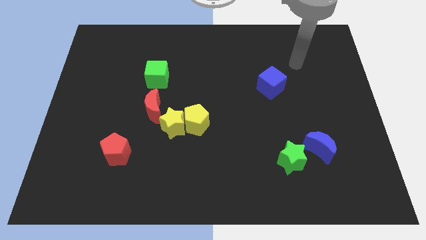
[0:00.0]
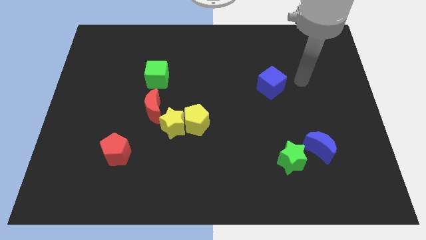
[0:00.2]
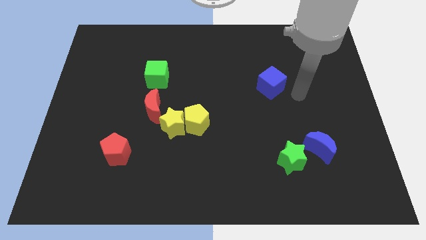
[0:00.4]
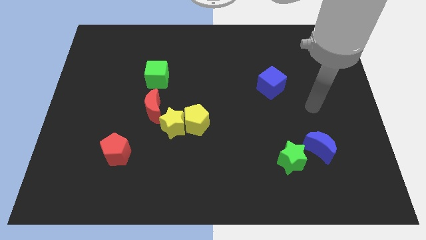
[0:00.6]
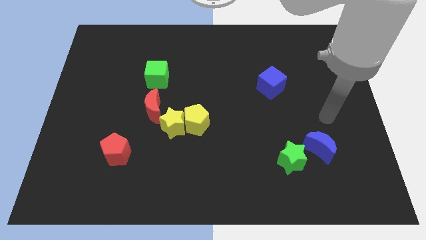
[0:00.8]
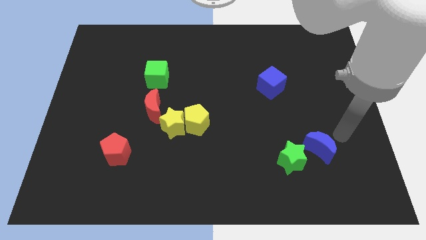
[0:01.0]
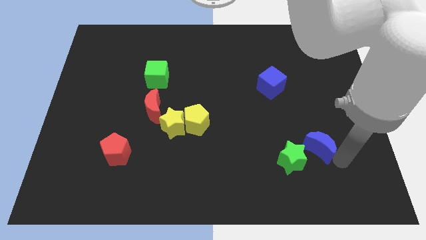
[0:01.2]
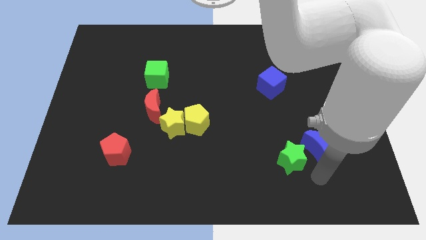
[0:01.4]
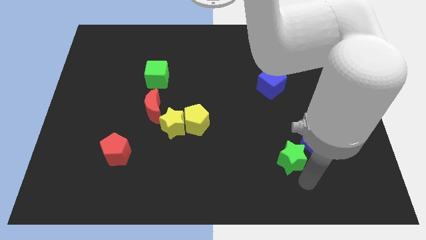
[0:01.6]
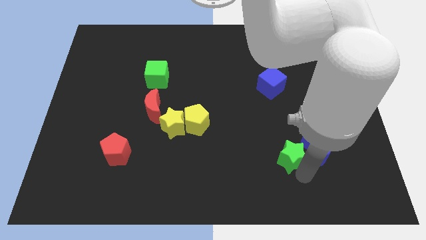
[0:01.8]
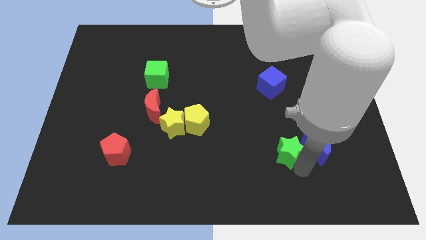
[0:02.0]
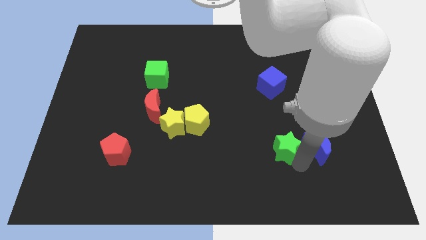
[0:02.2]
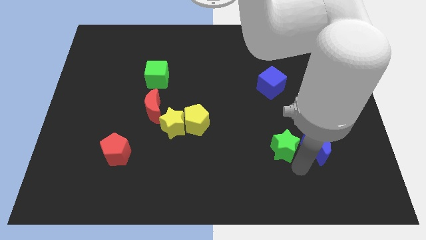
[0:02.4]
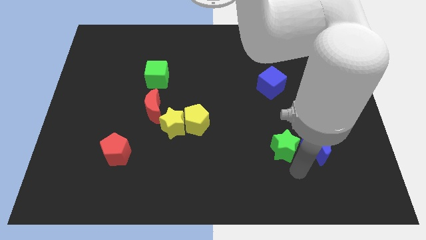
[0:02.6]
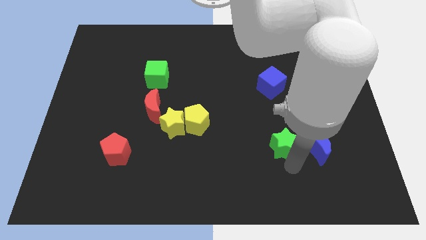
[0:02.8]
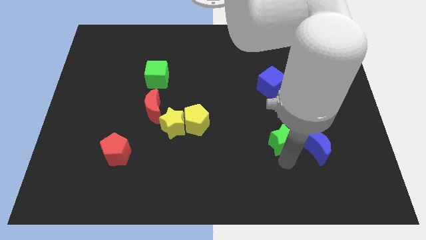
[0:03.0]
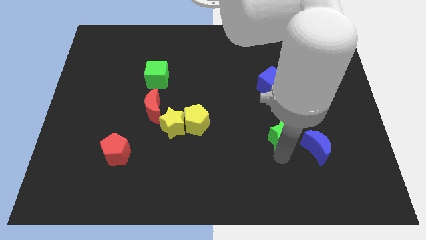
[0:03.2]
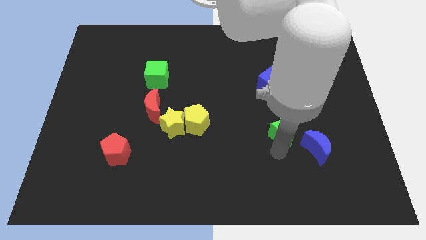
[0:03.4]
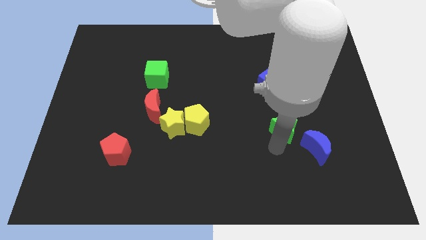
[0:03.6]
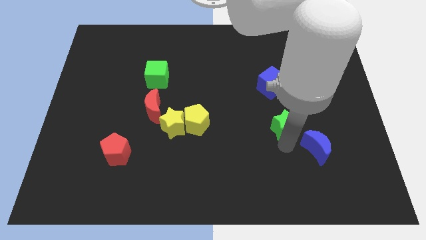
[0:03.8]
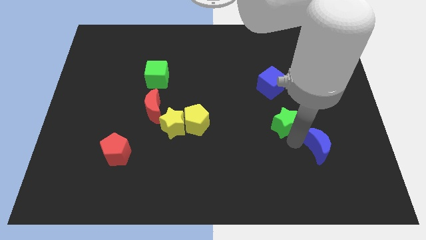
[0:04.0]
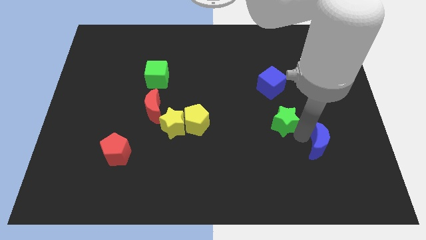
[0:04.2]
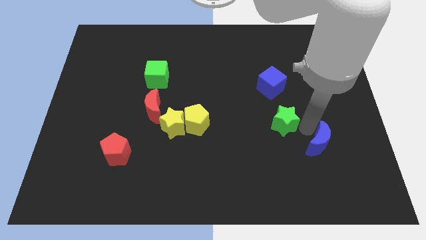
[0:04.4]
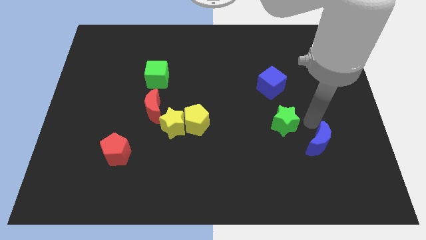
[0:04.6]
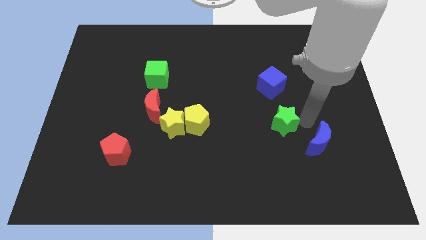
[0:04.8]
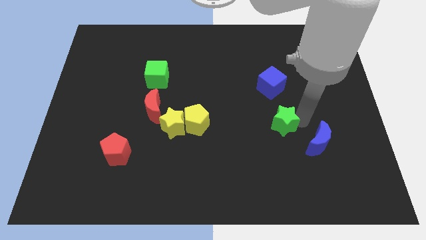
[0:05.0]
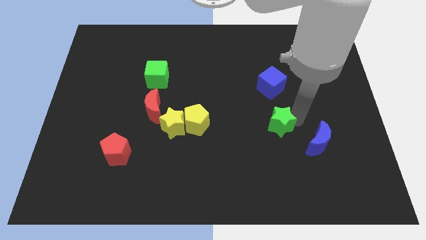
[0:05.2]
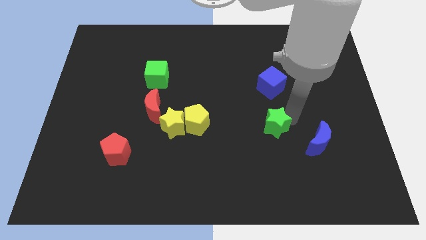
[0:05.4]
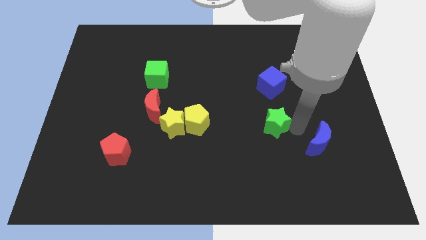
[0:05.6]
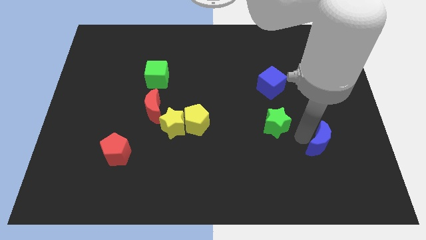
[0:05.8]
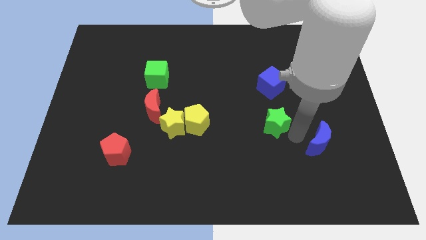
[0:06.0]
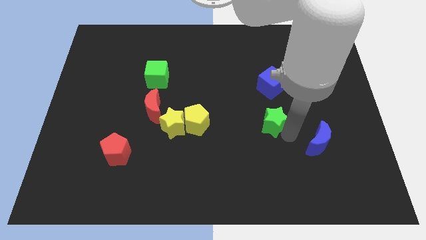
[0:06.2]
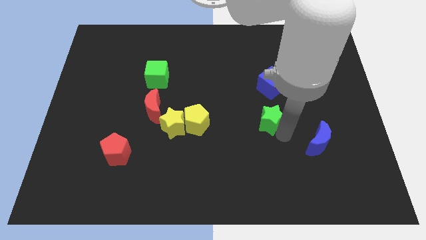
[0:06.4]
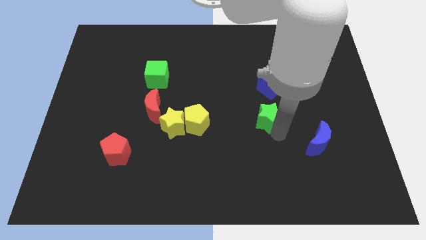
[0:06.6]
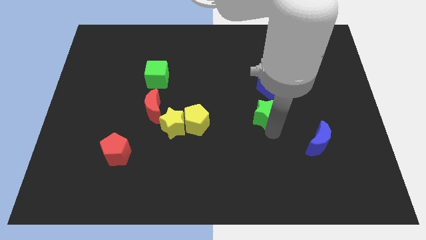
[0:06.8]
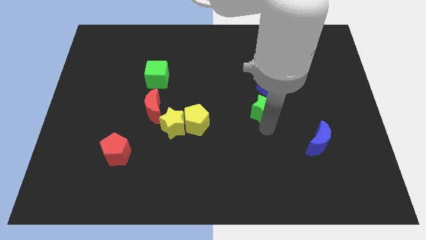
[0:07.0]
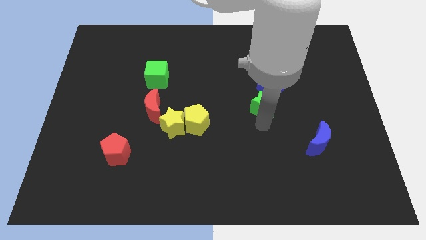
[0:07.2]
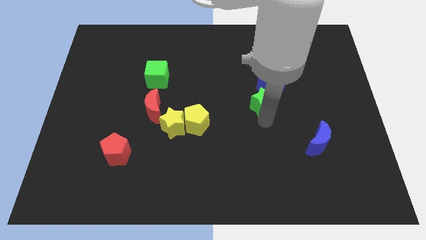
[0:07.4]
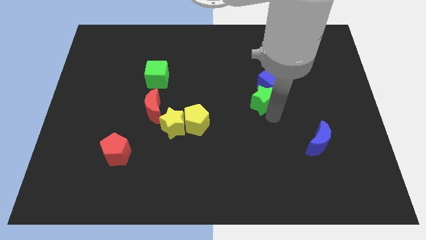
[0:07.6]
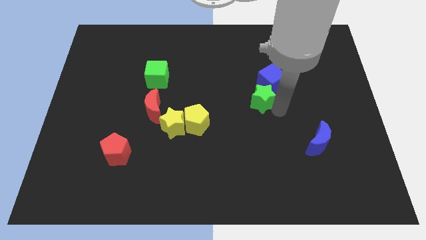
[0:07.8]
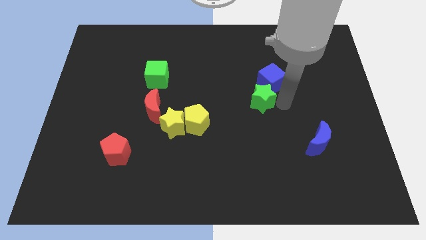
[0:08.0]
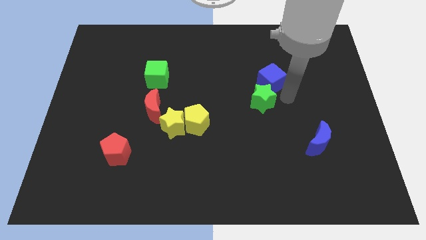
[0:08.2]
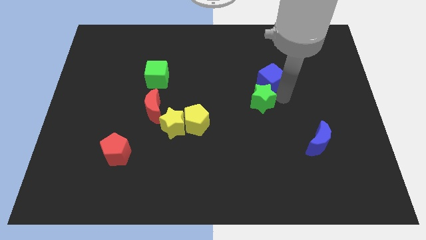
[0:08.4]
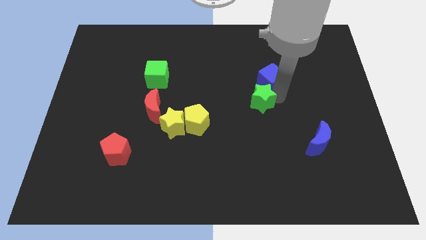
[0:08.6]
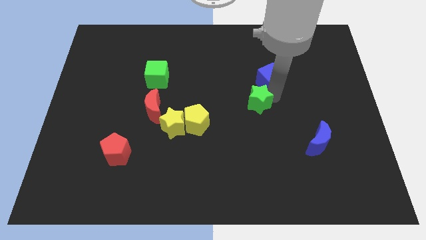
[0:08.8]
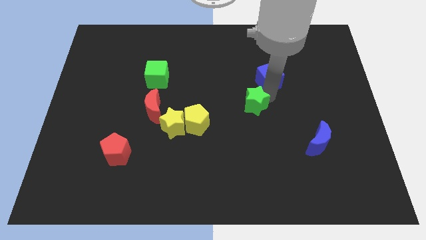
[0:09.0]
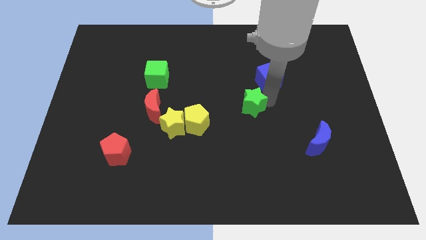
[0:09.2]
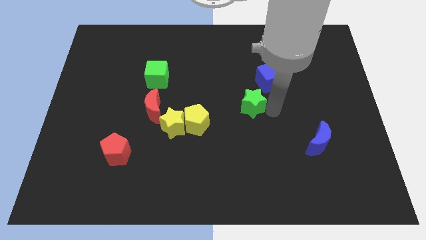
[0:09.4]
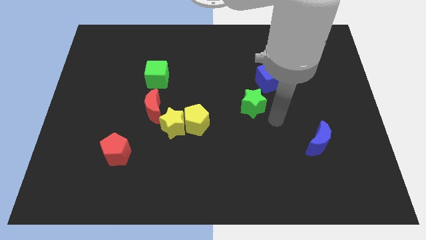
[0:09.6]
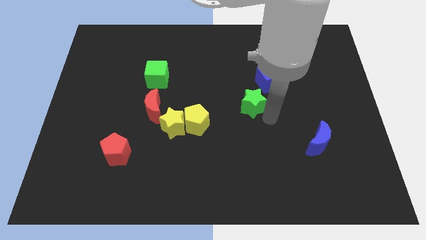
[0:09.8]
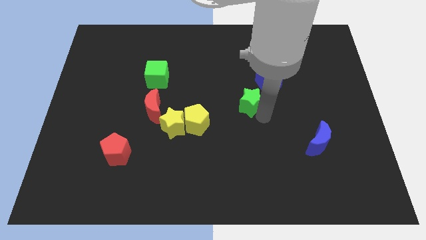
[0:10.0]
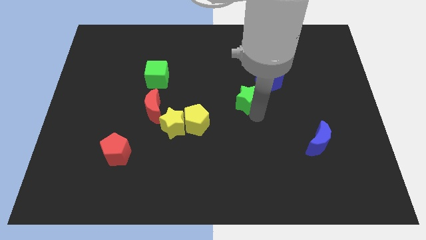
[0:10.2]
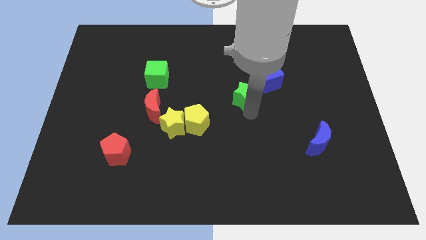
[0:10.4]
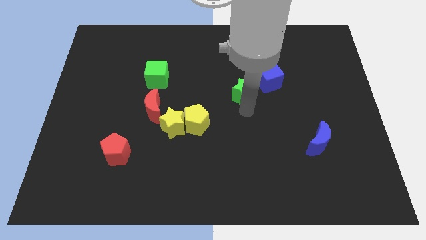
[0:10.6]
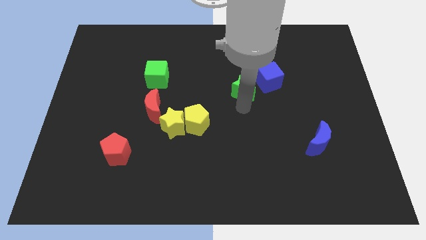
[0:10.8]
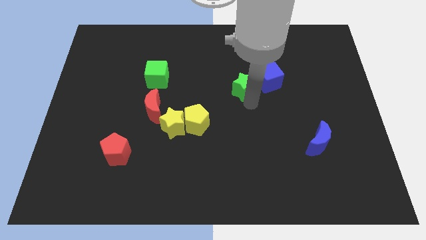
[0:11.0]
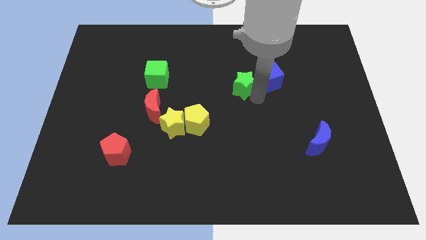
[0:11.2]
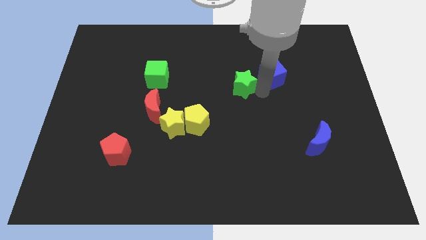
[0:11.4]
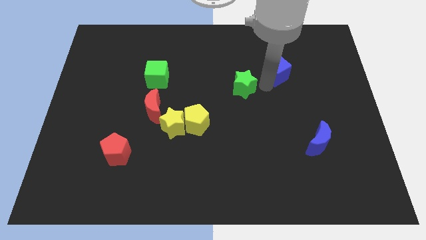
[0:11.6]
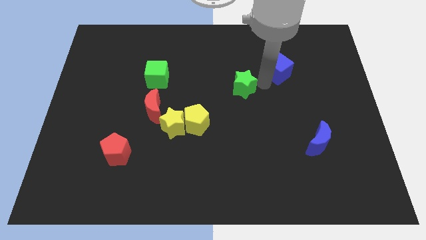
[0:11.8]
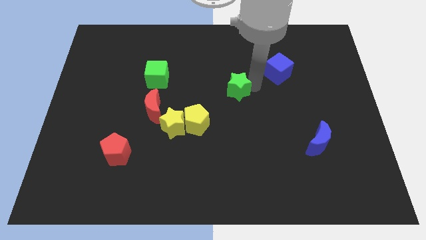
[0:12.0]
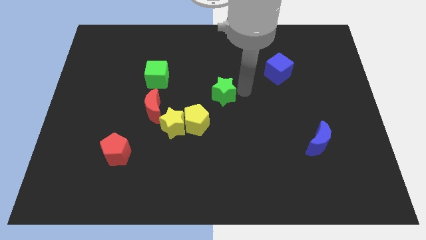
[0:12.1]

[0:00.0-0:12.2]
push the green star up and then left

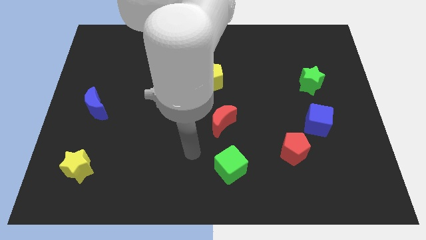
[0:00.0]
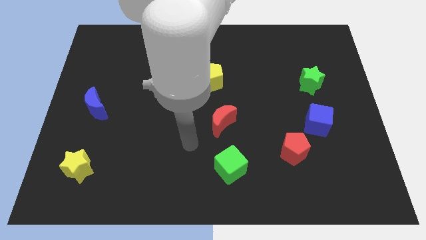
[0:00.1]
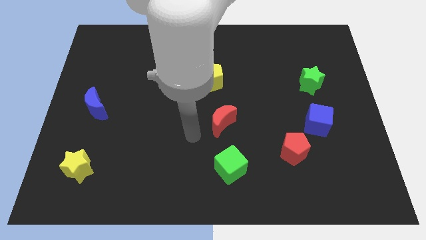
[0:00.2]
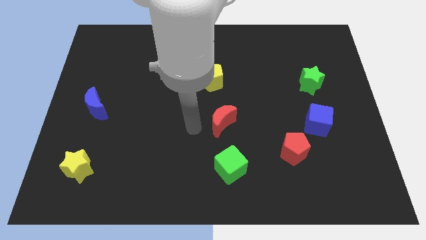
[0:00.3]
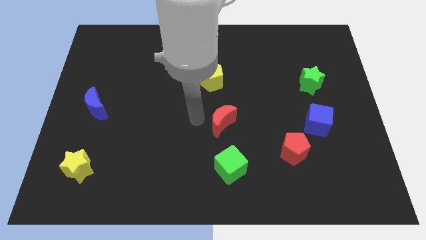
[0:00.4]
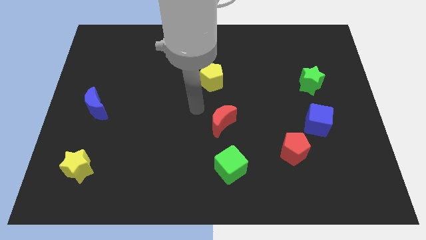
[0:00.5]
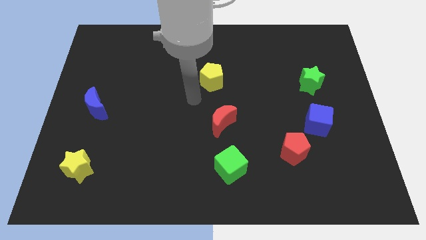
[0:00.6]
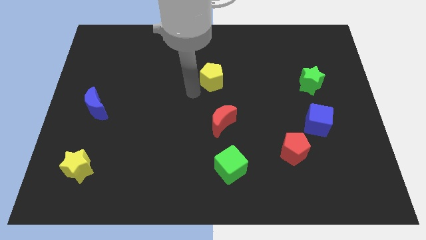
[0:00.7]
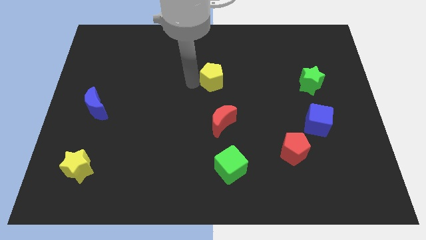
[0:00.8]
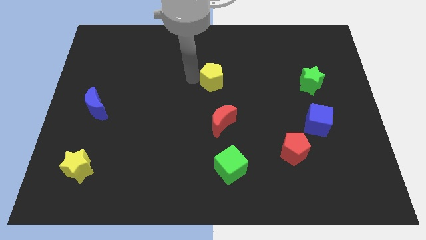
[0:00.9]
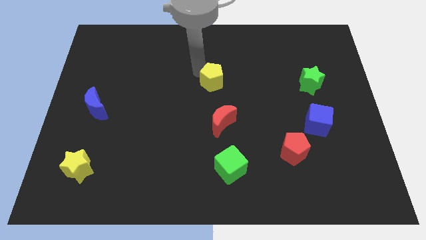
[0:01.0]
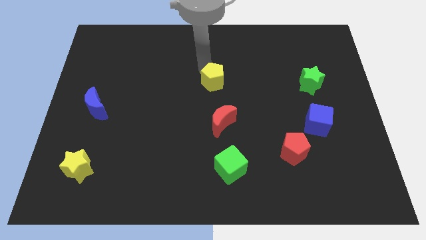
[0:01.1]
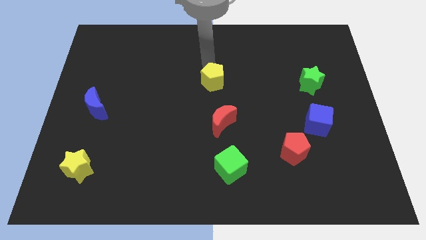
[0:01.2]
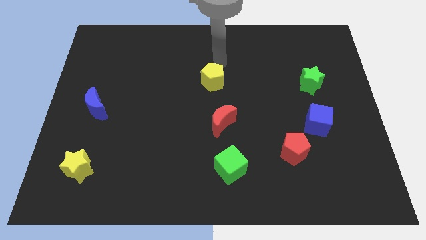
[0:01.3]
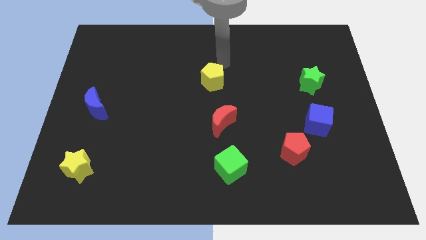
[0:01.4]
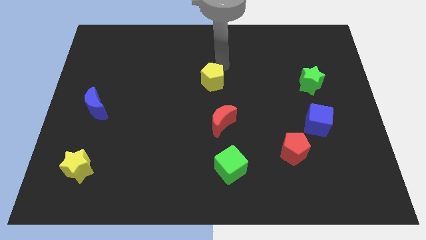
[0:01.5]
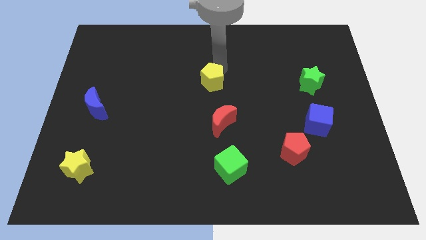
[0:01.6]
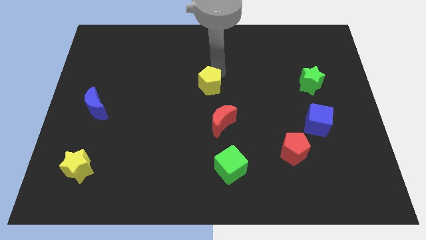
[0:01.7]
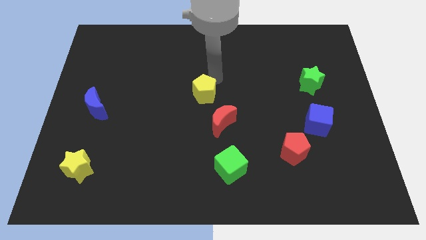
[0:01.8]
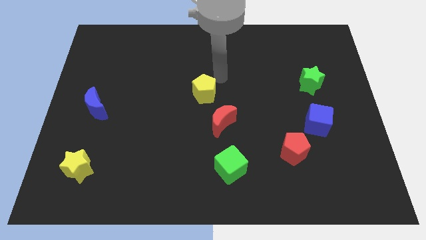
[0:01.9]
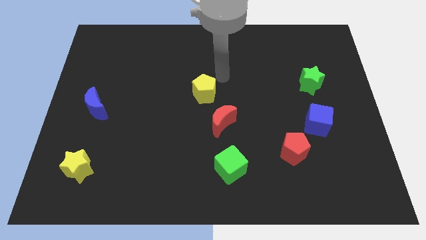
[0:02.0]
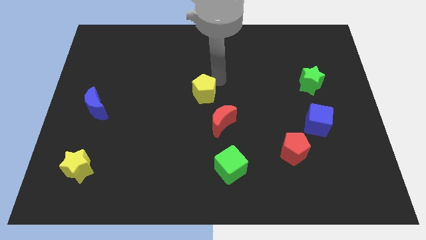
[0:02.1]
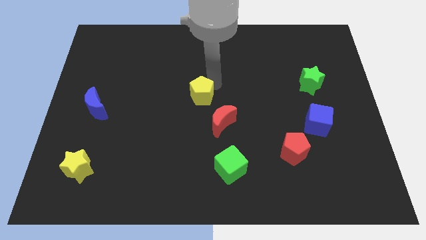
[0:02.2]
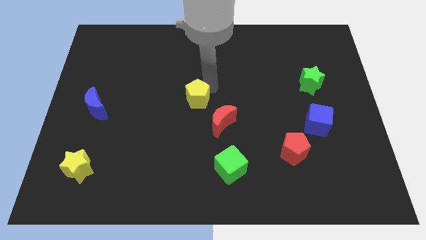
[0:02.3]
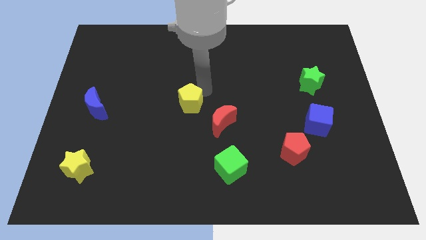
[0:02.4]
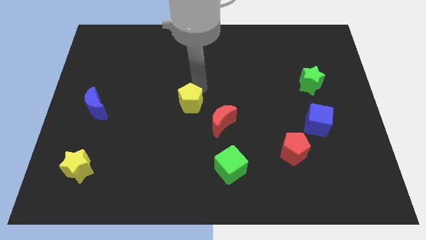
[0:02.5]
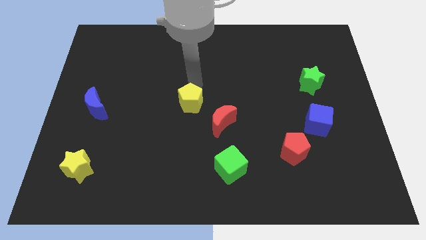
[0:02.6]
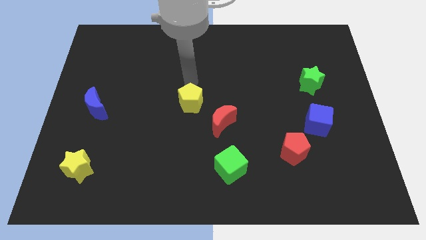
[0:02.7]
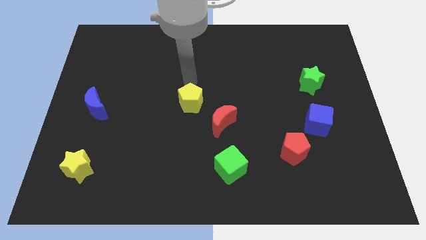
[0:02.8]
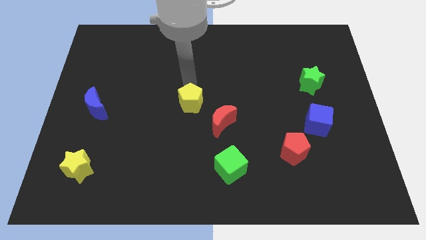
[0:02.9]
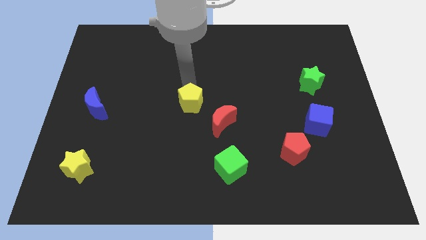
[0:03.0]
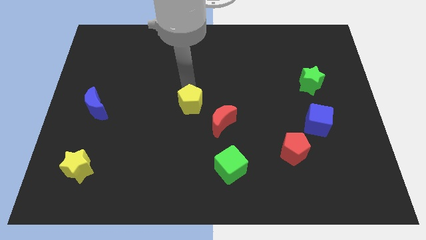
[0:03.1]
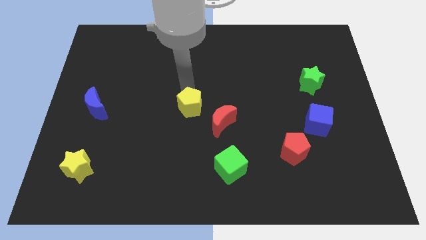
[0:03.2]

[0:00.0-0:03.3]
slightly slide the yellow pentagon down
